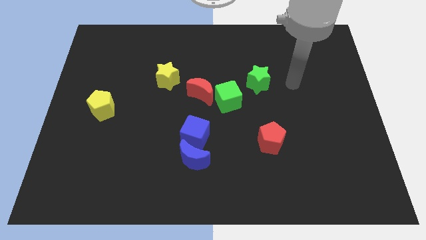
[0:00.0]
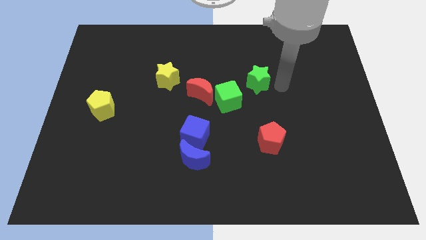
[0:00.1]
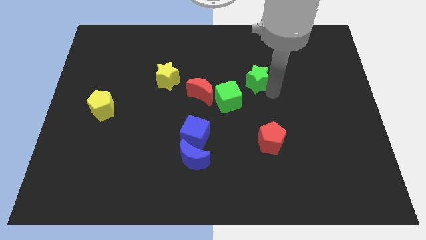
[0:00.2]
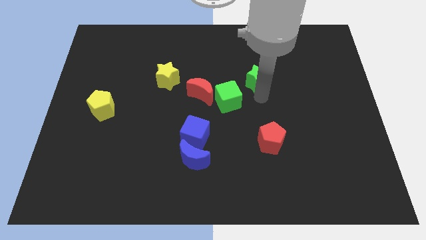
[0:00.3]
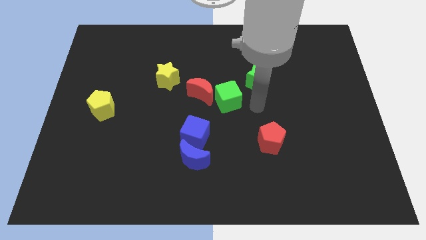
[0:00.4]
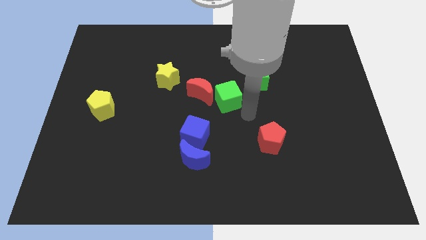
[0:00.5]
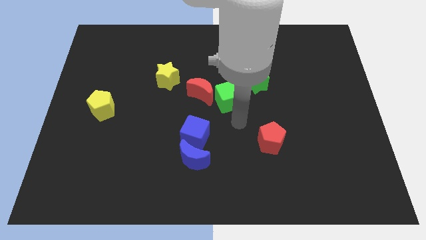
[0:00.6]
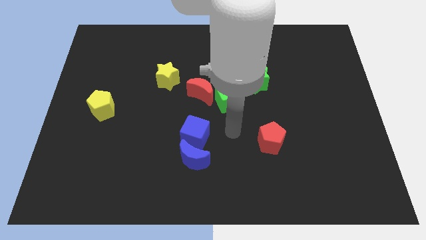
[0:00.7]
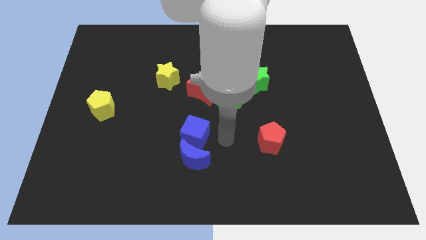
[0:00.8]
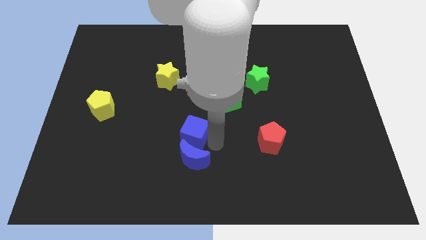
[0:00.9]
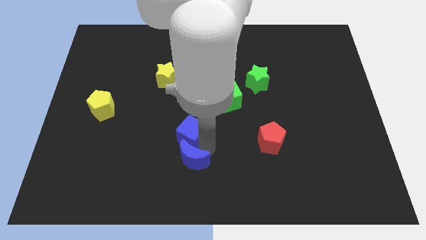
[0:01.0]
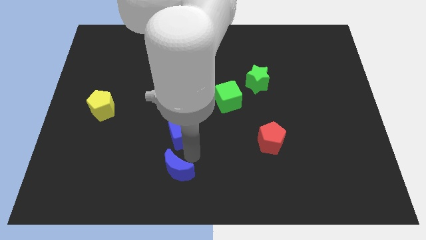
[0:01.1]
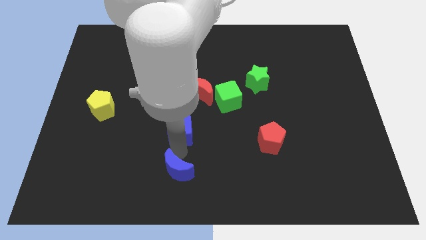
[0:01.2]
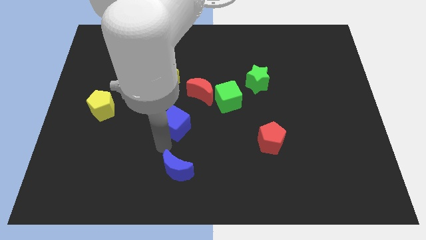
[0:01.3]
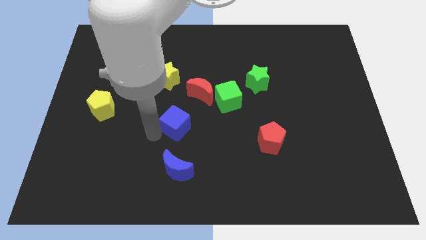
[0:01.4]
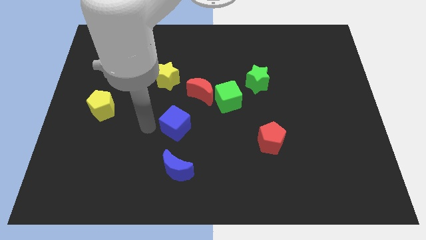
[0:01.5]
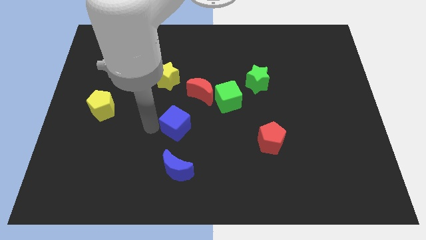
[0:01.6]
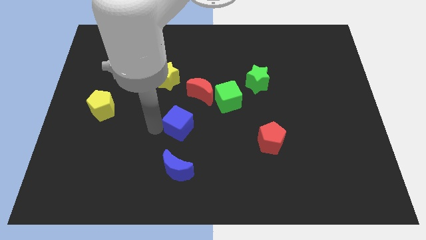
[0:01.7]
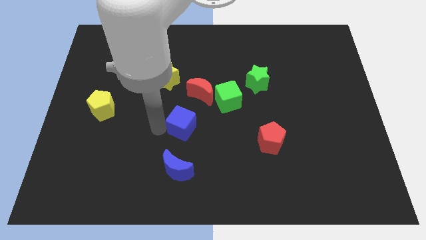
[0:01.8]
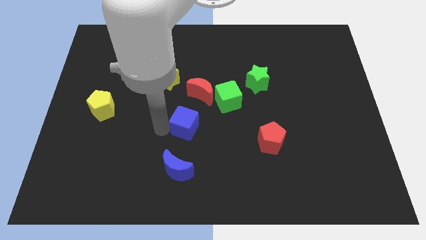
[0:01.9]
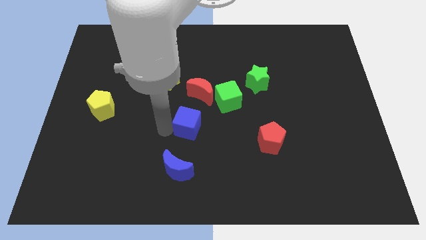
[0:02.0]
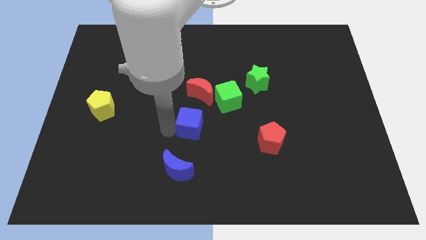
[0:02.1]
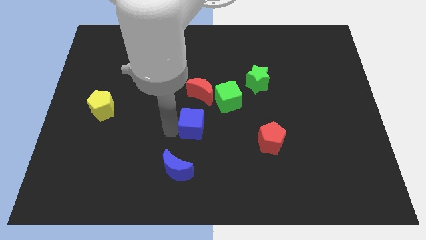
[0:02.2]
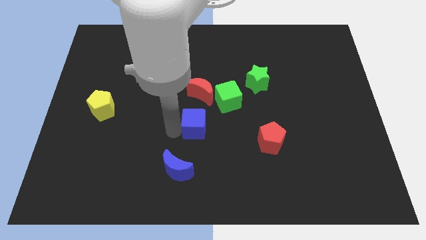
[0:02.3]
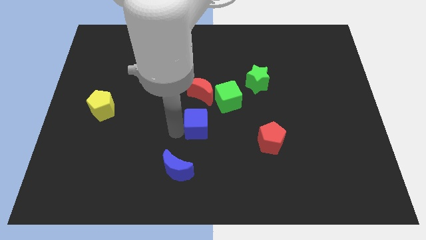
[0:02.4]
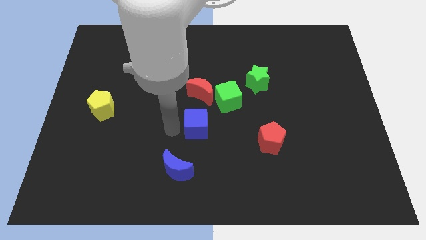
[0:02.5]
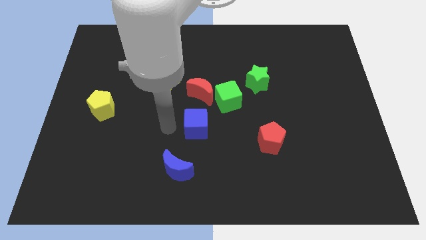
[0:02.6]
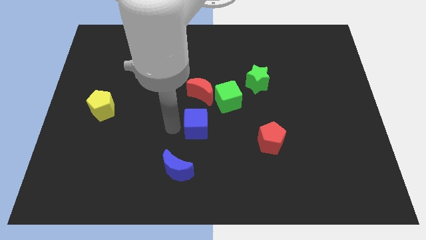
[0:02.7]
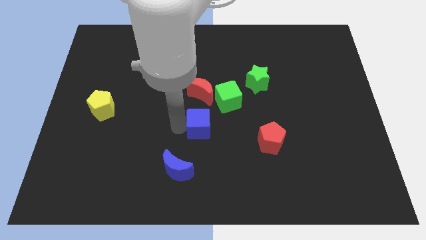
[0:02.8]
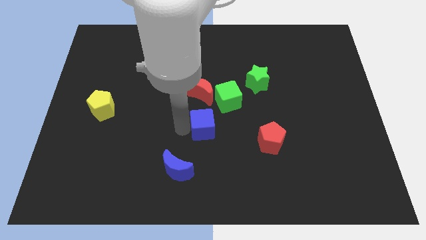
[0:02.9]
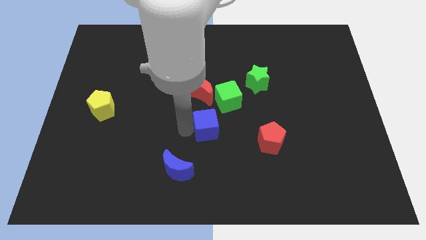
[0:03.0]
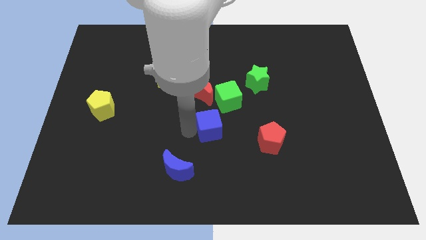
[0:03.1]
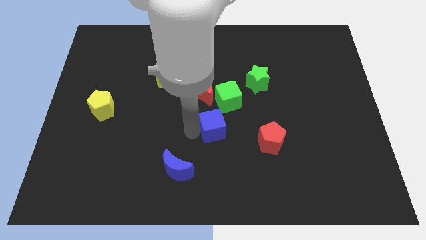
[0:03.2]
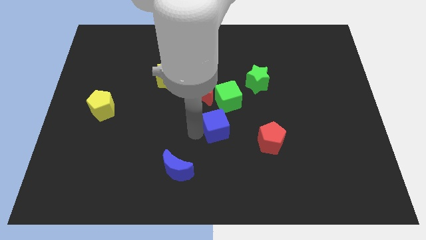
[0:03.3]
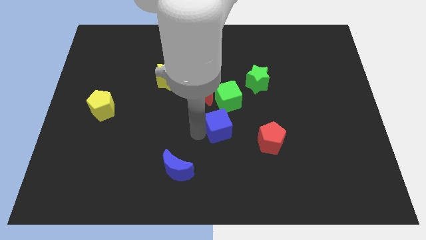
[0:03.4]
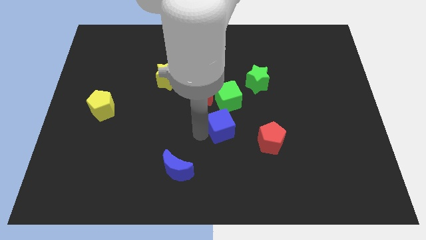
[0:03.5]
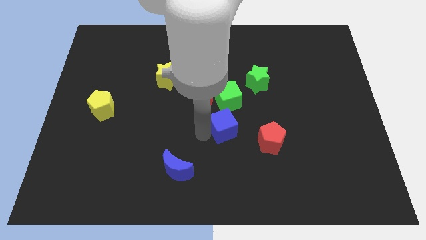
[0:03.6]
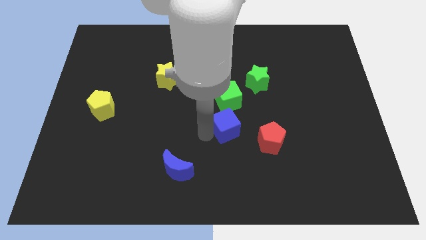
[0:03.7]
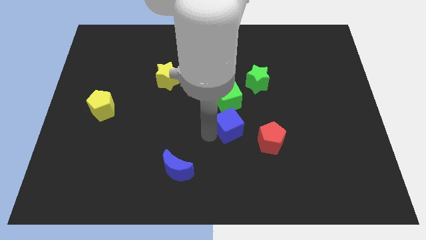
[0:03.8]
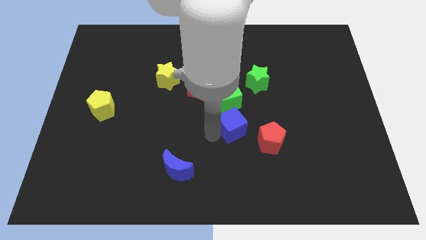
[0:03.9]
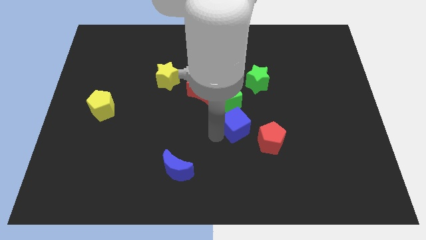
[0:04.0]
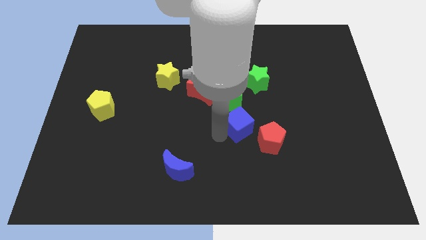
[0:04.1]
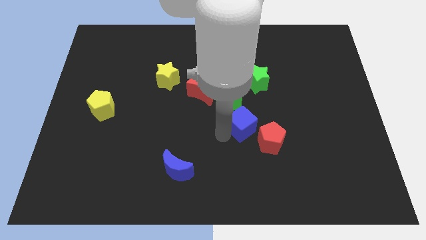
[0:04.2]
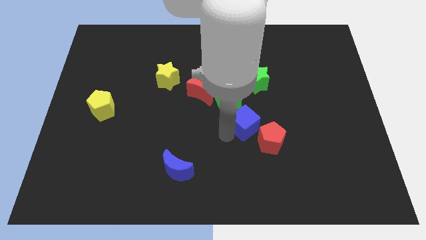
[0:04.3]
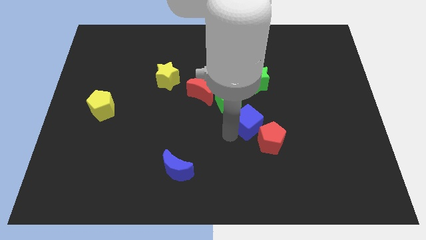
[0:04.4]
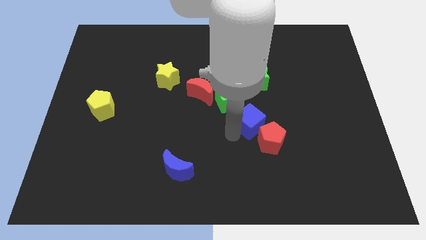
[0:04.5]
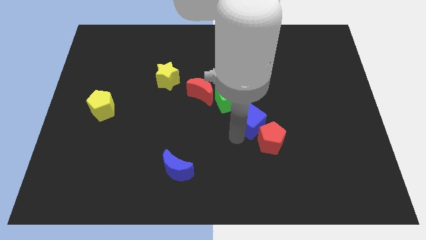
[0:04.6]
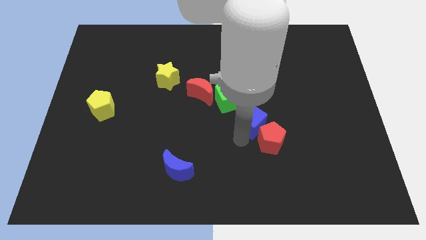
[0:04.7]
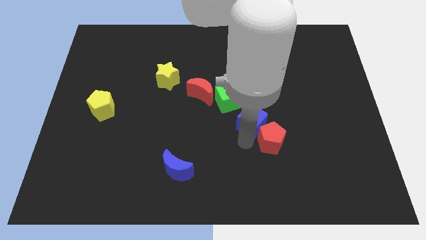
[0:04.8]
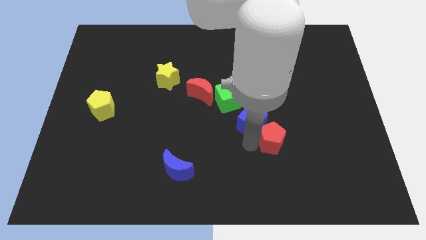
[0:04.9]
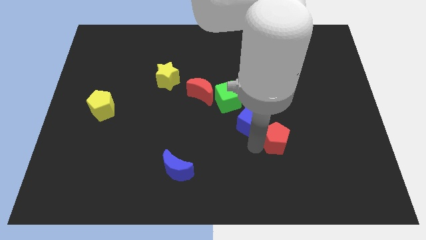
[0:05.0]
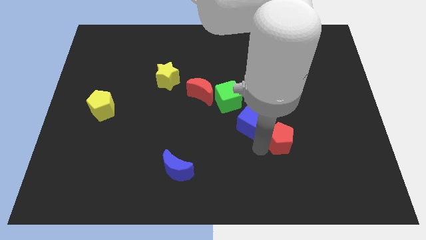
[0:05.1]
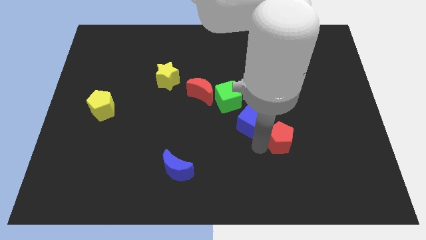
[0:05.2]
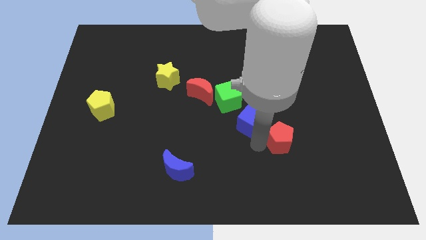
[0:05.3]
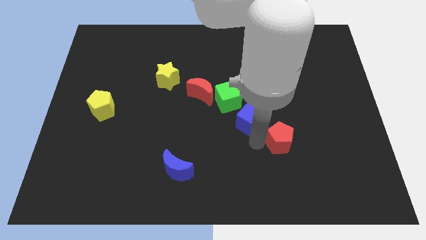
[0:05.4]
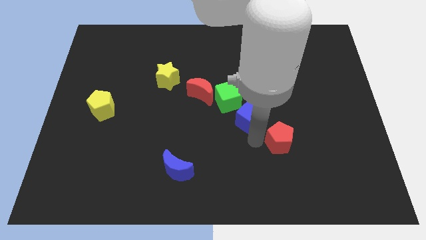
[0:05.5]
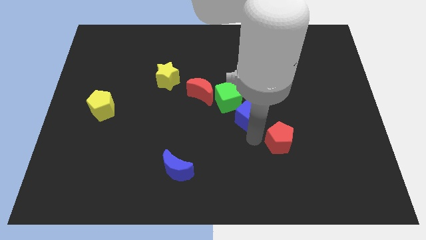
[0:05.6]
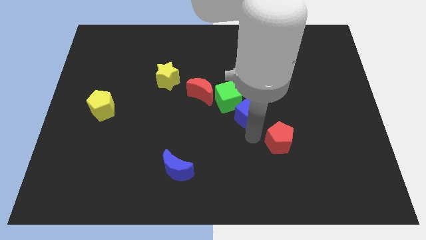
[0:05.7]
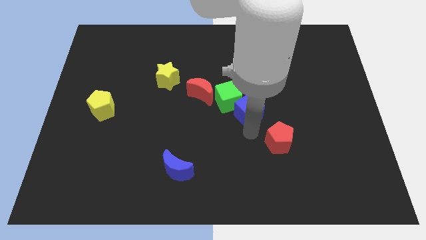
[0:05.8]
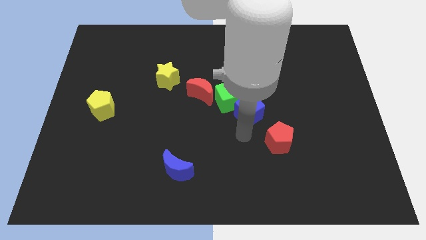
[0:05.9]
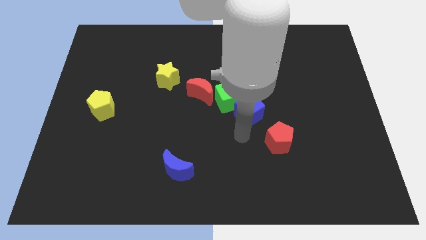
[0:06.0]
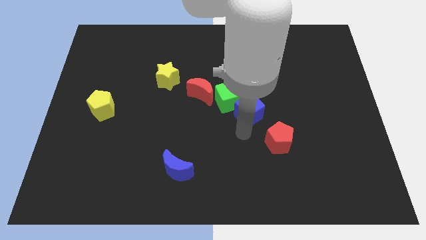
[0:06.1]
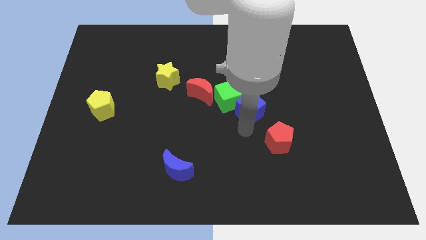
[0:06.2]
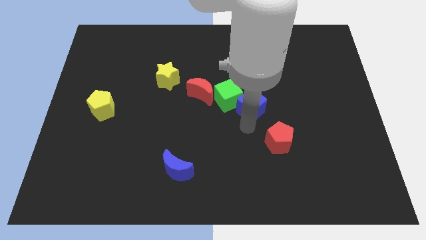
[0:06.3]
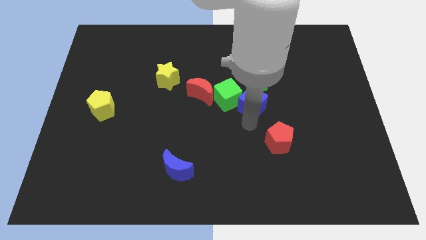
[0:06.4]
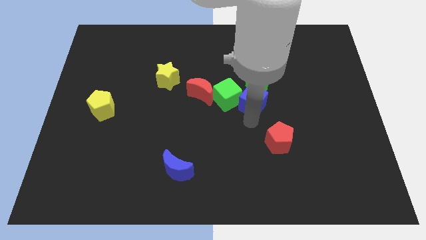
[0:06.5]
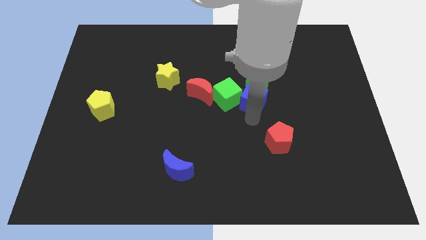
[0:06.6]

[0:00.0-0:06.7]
push the blue cube next to the green star

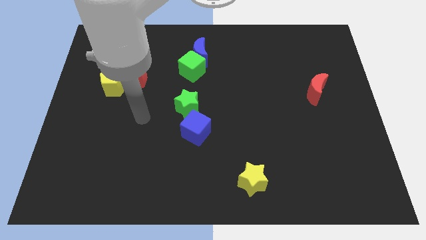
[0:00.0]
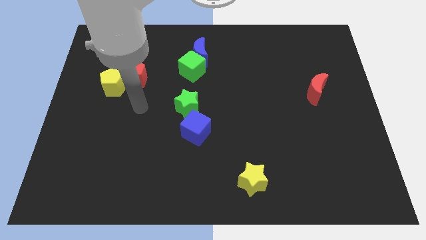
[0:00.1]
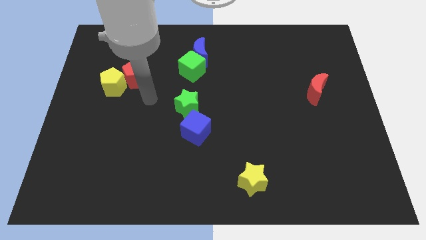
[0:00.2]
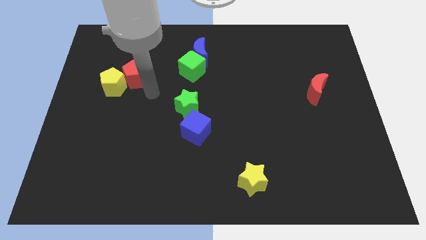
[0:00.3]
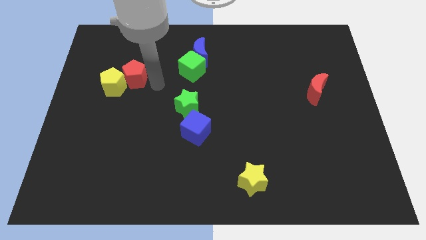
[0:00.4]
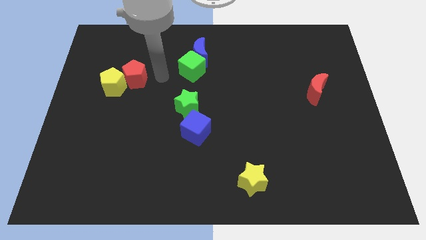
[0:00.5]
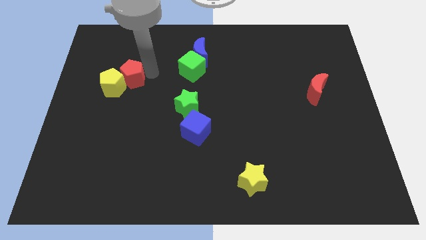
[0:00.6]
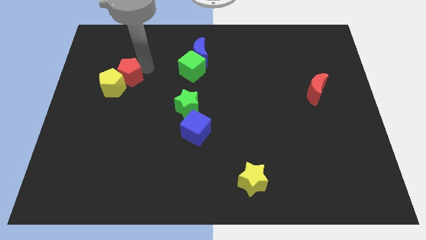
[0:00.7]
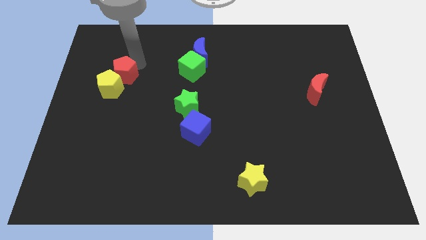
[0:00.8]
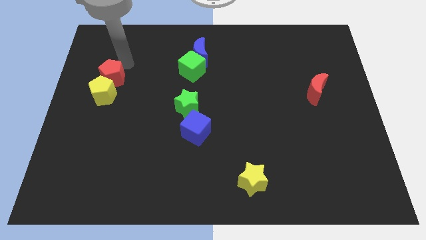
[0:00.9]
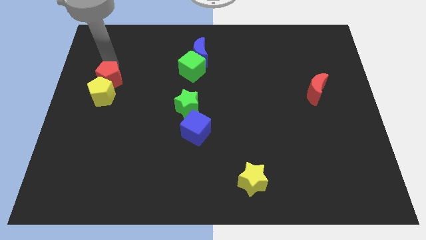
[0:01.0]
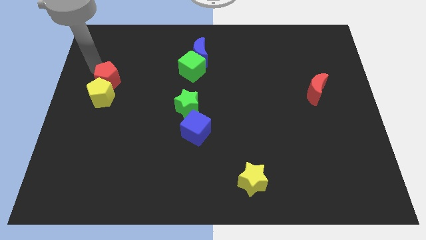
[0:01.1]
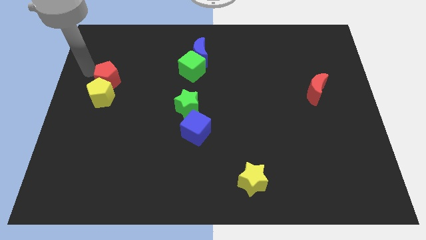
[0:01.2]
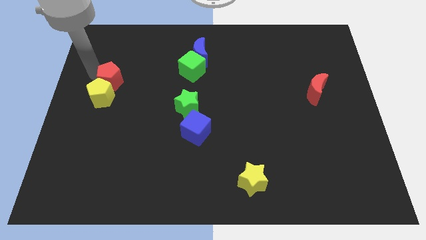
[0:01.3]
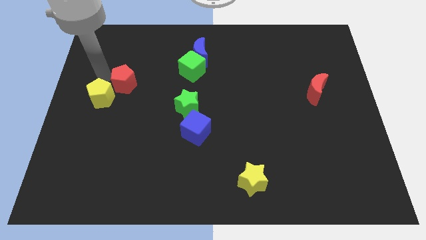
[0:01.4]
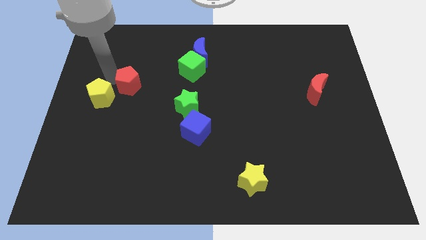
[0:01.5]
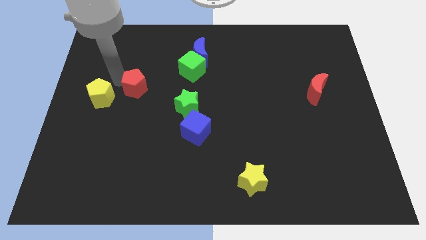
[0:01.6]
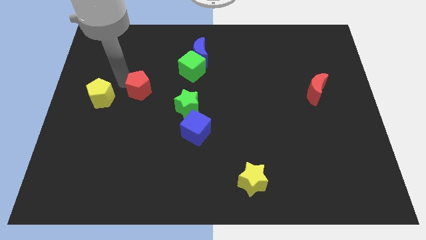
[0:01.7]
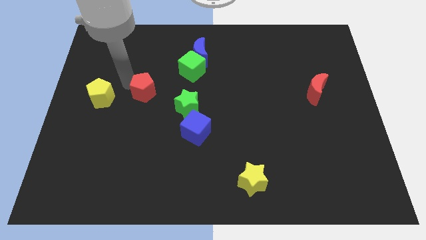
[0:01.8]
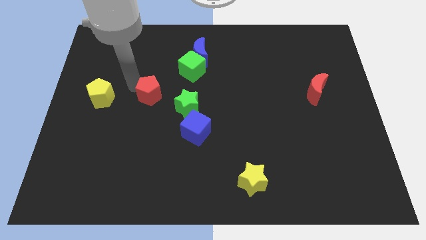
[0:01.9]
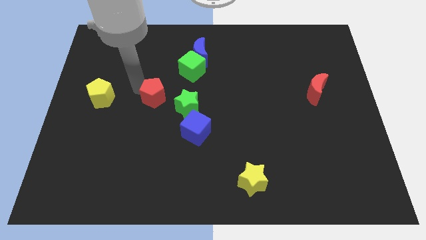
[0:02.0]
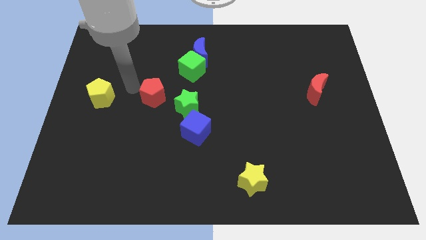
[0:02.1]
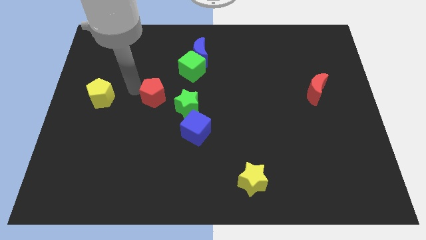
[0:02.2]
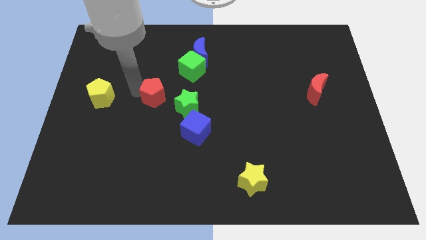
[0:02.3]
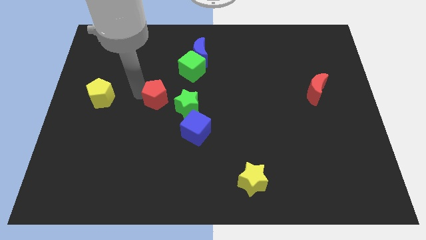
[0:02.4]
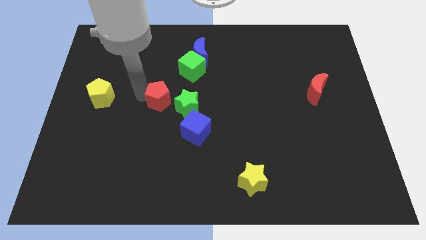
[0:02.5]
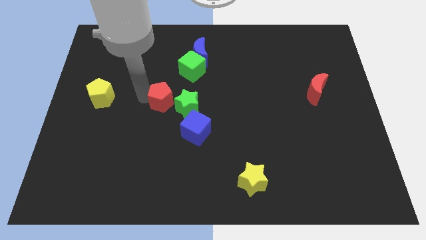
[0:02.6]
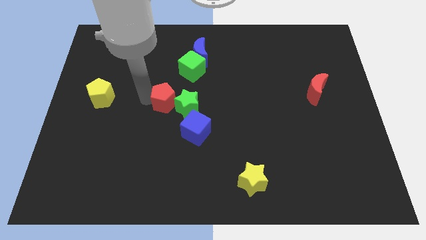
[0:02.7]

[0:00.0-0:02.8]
push the red pentagon to the green star
